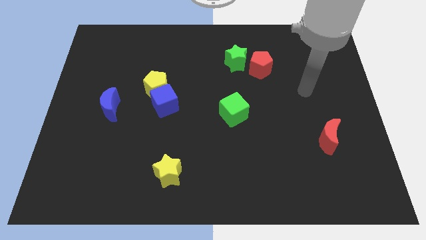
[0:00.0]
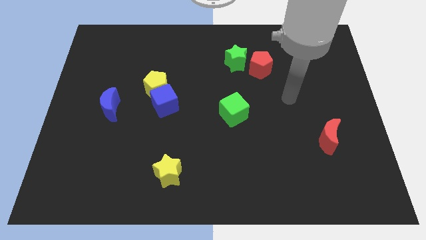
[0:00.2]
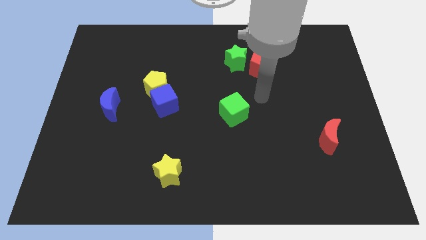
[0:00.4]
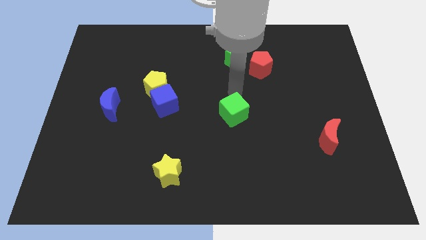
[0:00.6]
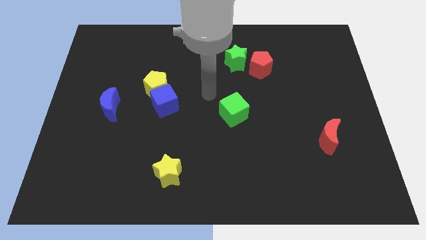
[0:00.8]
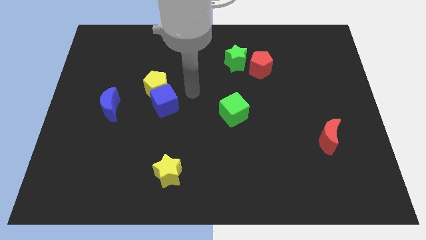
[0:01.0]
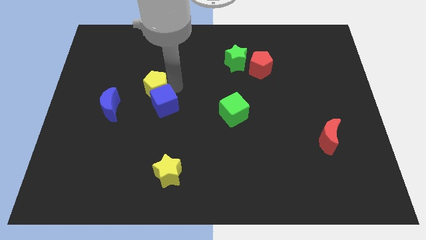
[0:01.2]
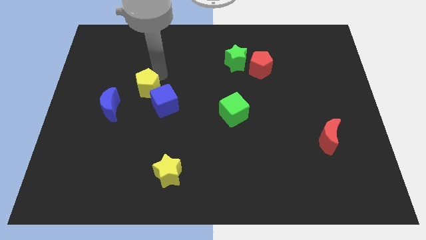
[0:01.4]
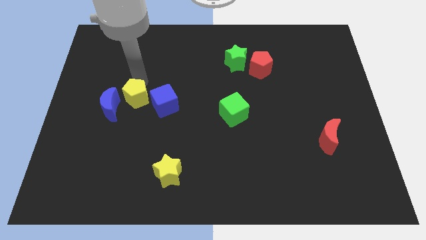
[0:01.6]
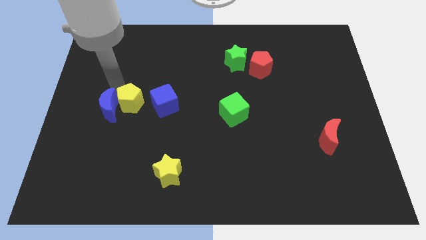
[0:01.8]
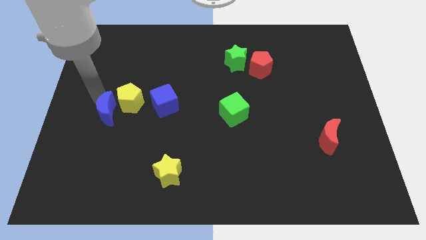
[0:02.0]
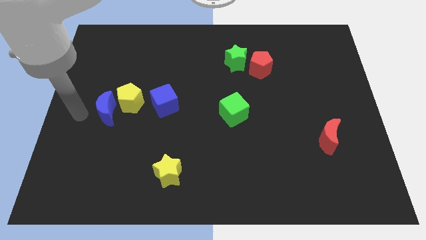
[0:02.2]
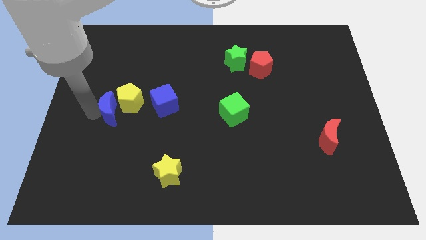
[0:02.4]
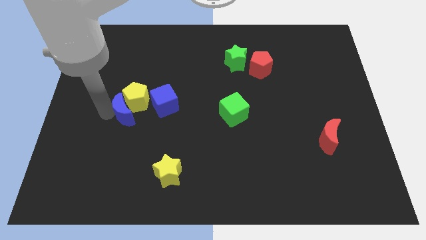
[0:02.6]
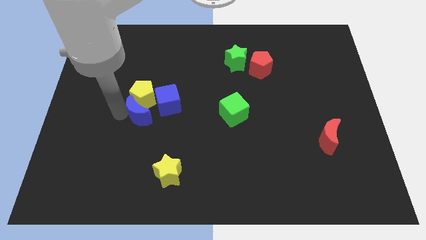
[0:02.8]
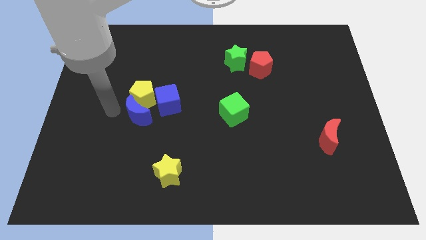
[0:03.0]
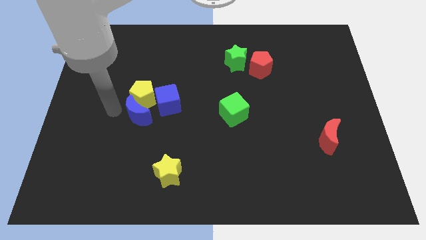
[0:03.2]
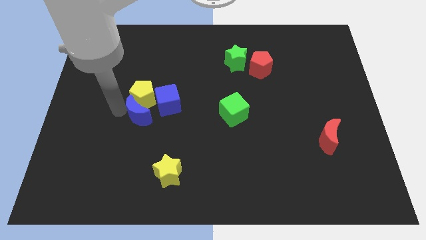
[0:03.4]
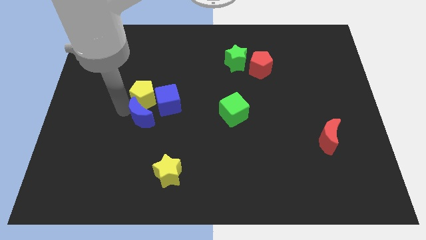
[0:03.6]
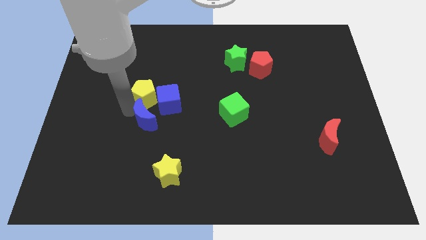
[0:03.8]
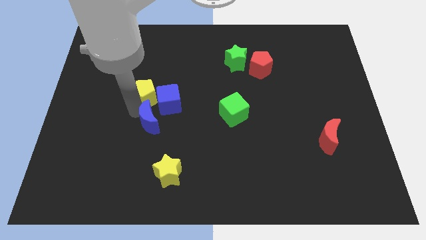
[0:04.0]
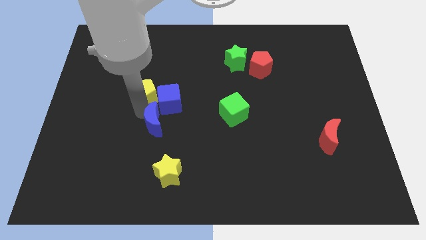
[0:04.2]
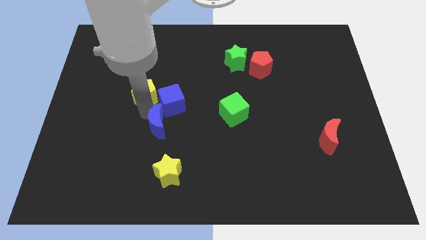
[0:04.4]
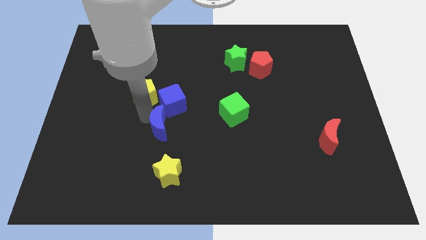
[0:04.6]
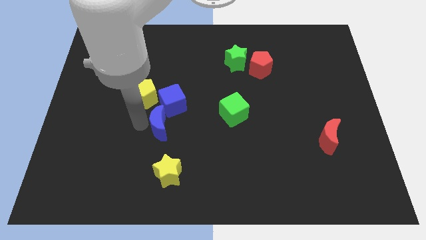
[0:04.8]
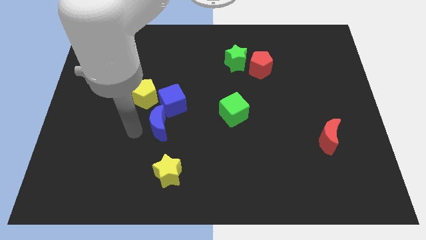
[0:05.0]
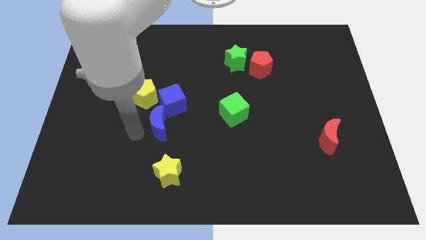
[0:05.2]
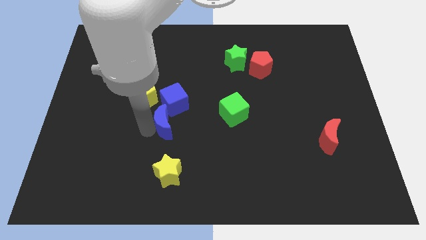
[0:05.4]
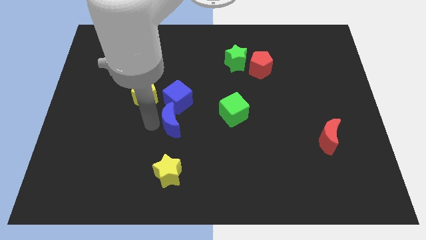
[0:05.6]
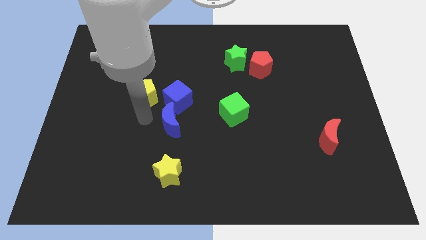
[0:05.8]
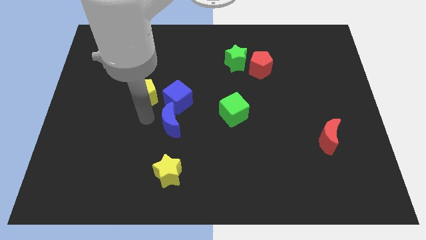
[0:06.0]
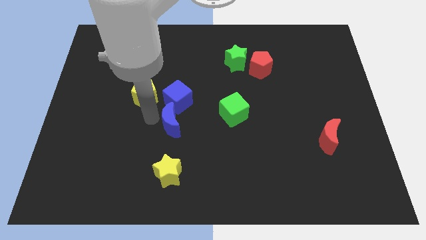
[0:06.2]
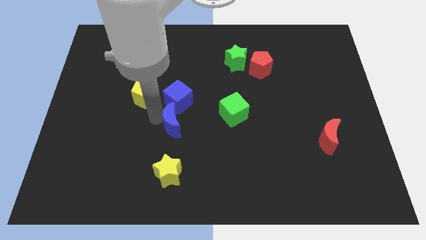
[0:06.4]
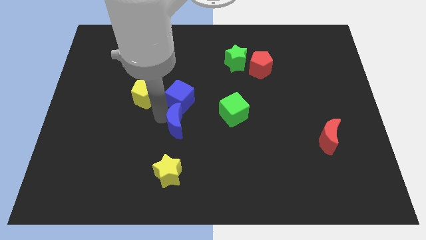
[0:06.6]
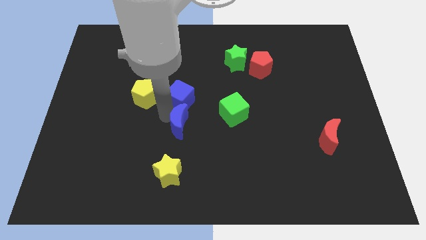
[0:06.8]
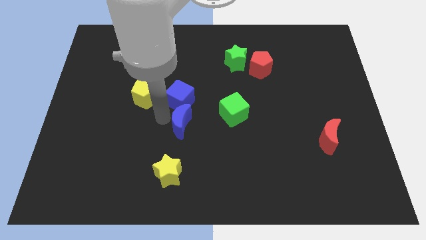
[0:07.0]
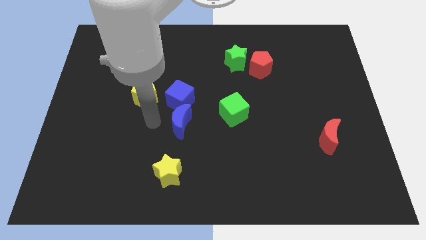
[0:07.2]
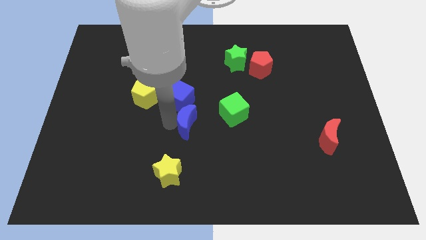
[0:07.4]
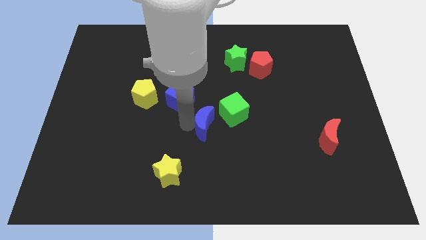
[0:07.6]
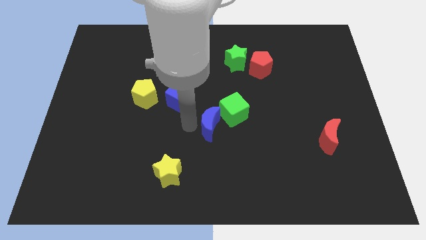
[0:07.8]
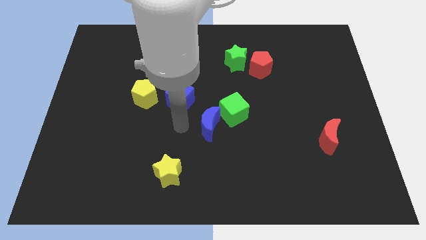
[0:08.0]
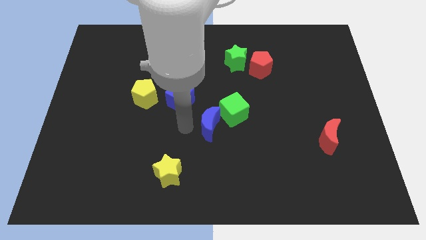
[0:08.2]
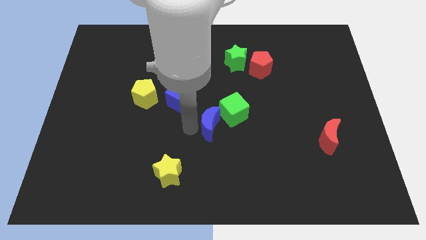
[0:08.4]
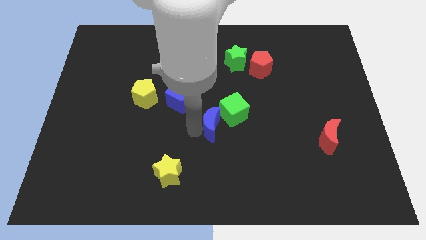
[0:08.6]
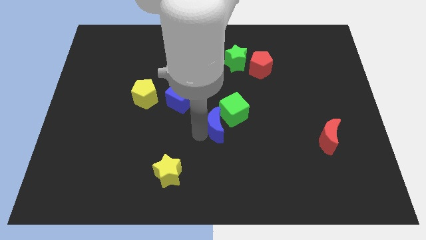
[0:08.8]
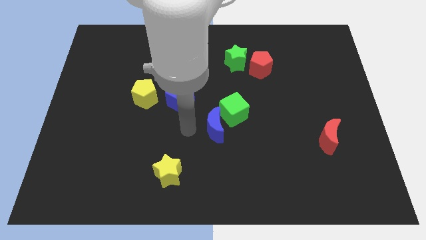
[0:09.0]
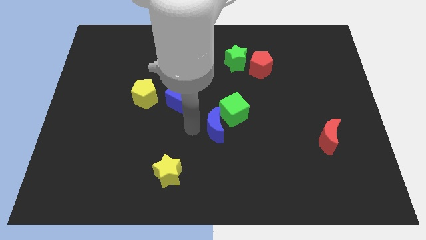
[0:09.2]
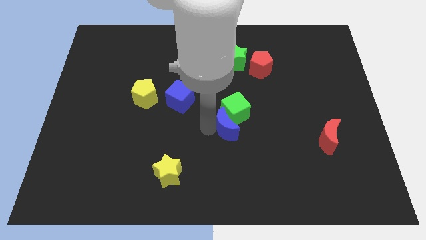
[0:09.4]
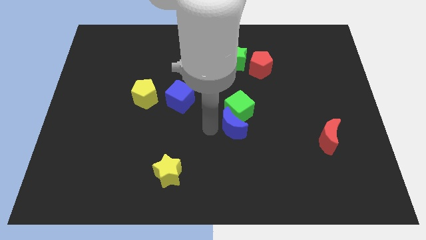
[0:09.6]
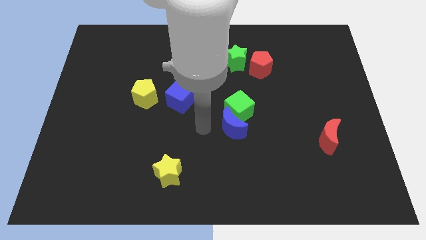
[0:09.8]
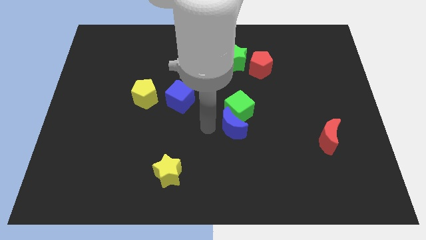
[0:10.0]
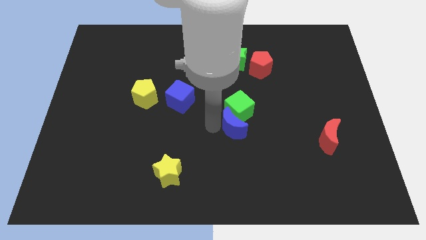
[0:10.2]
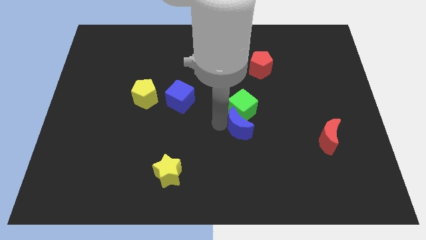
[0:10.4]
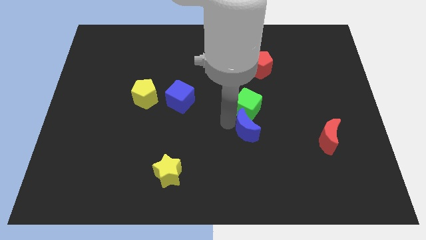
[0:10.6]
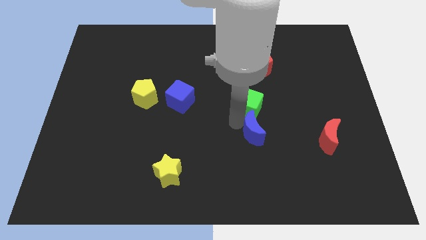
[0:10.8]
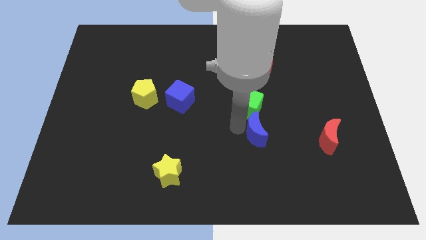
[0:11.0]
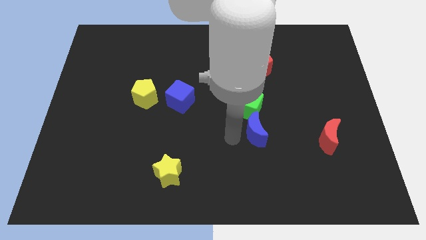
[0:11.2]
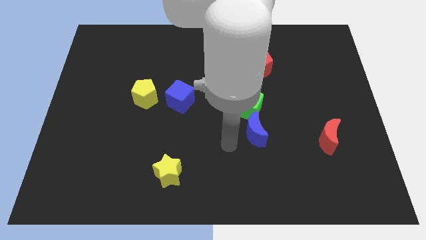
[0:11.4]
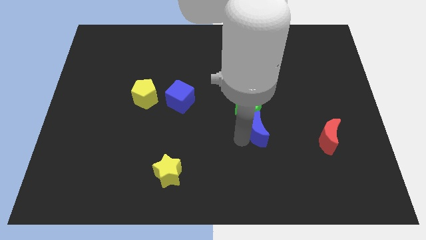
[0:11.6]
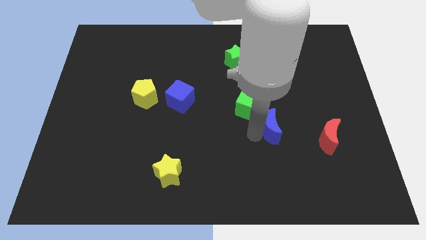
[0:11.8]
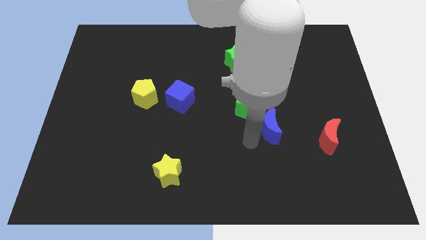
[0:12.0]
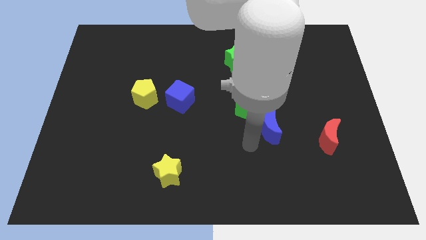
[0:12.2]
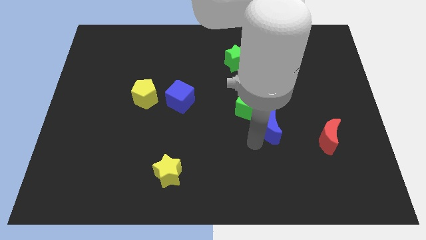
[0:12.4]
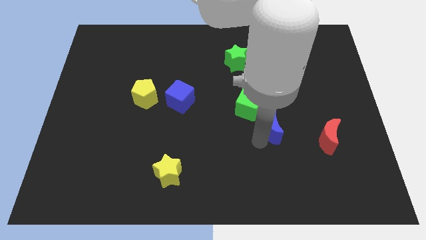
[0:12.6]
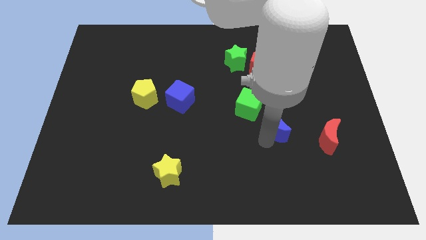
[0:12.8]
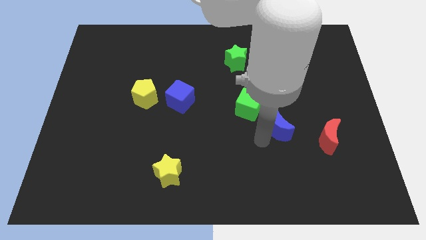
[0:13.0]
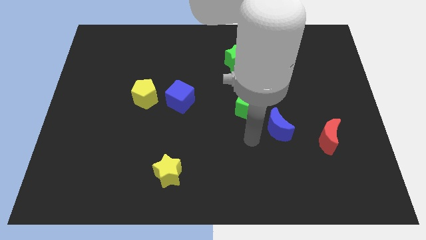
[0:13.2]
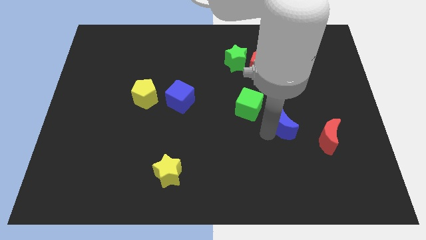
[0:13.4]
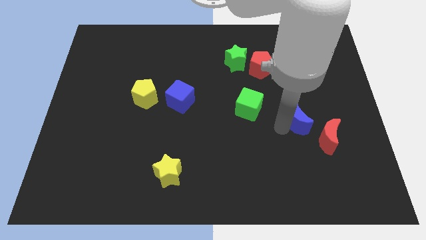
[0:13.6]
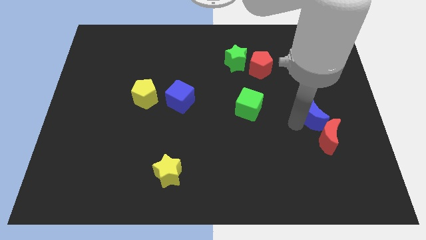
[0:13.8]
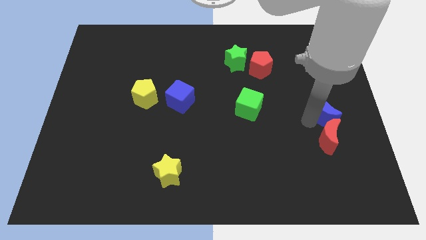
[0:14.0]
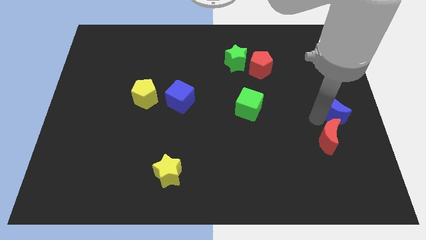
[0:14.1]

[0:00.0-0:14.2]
move the blue moon to the right side
